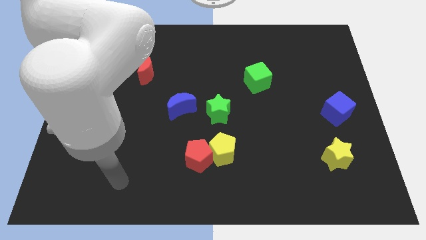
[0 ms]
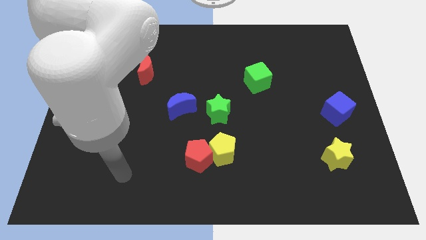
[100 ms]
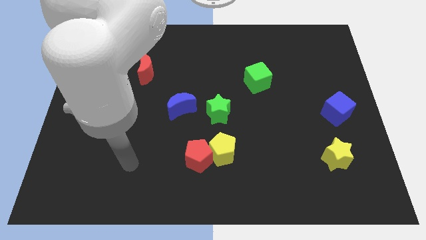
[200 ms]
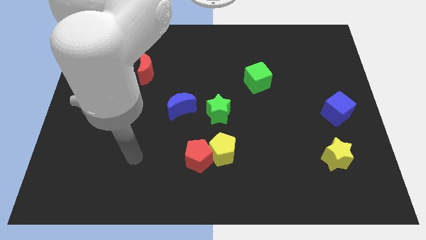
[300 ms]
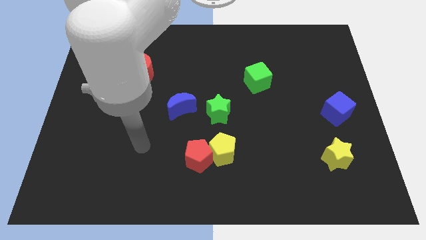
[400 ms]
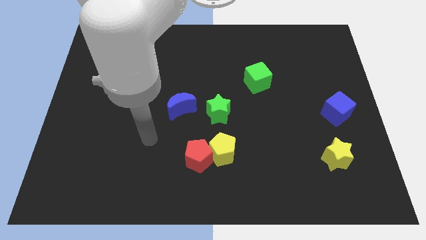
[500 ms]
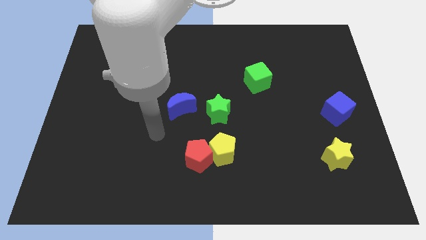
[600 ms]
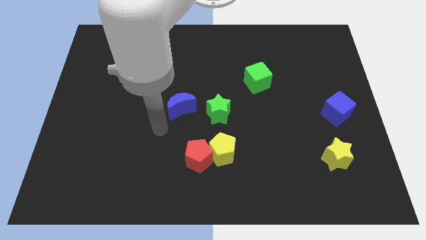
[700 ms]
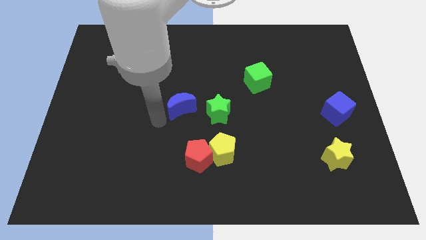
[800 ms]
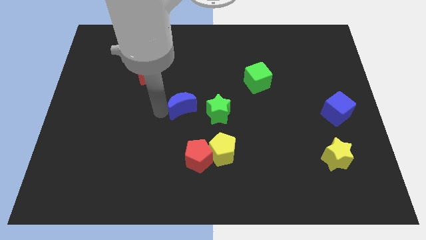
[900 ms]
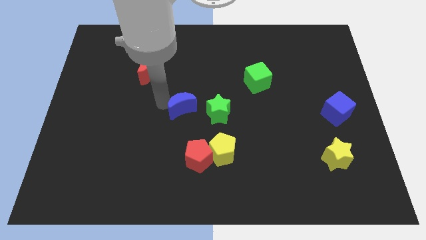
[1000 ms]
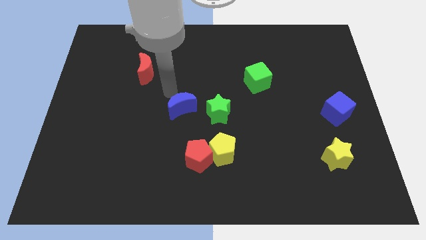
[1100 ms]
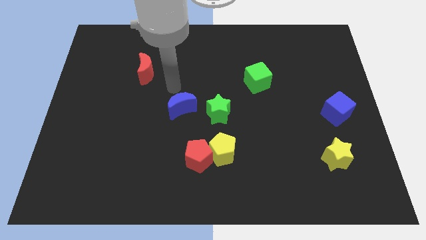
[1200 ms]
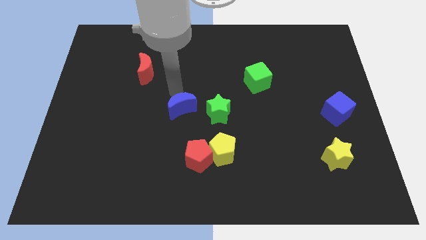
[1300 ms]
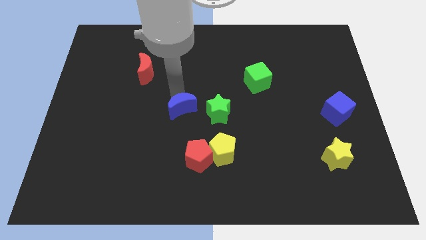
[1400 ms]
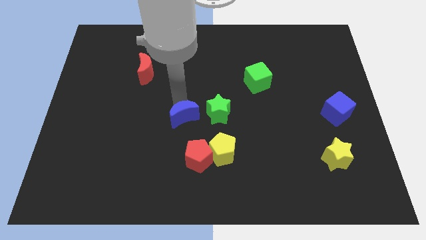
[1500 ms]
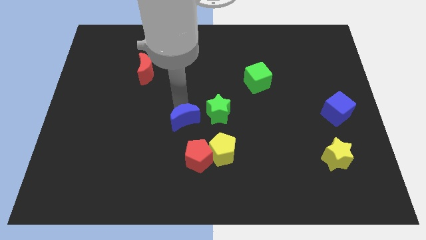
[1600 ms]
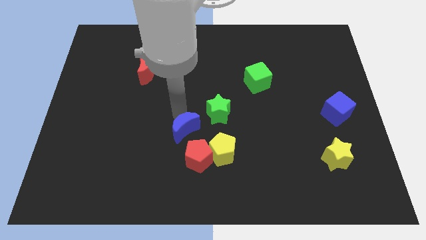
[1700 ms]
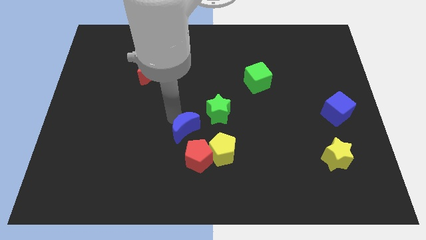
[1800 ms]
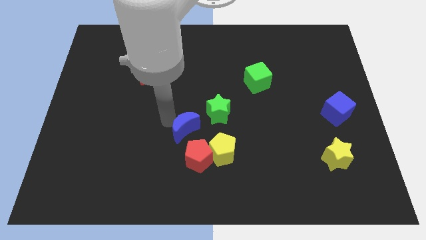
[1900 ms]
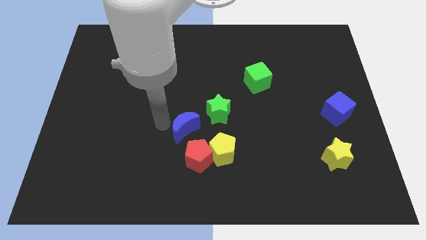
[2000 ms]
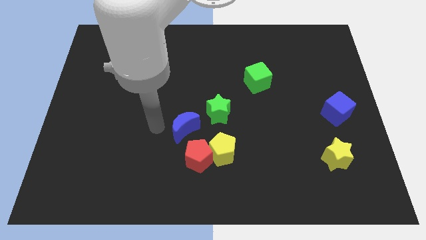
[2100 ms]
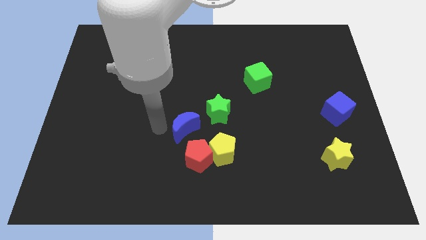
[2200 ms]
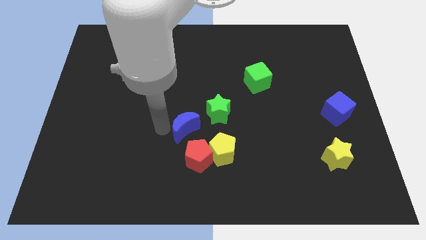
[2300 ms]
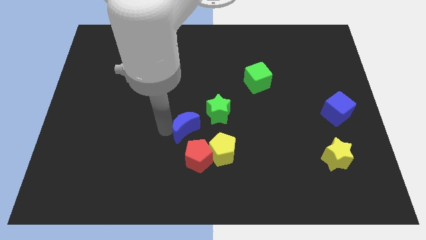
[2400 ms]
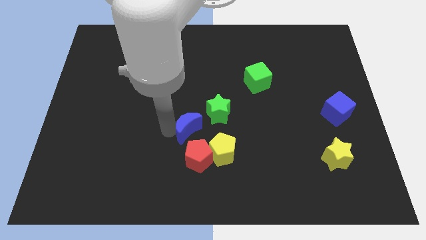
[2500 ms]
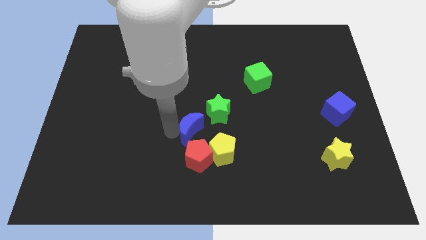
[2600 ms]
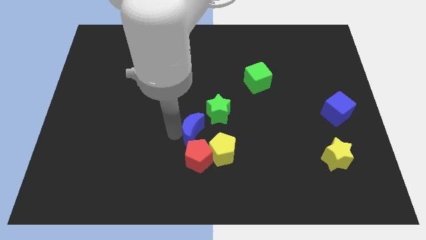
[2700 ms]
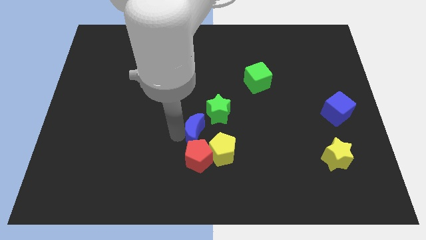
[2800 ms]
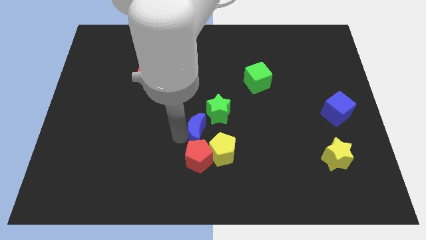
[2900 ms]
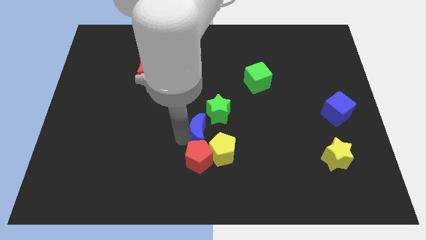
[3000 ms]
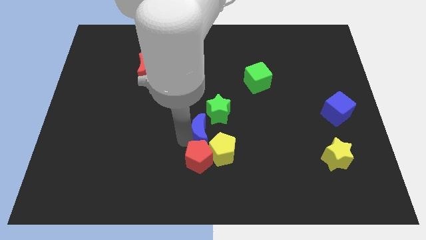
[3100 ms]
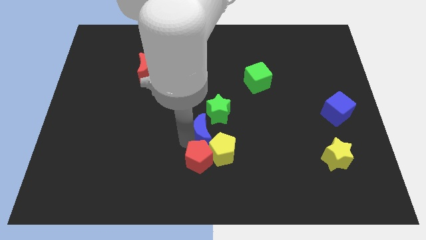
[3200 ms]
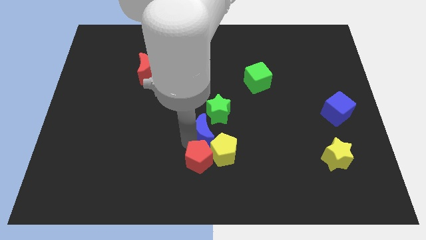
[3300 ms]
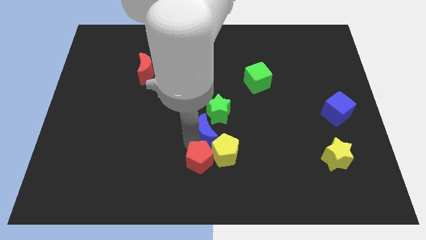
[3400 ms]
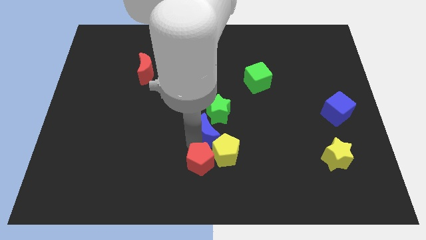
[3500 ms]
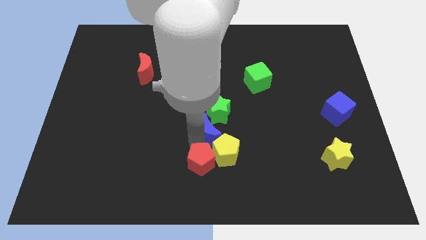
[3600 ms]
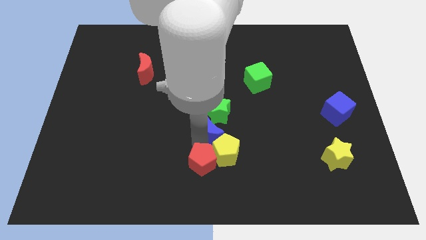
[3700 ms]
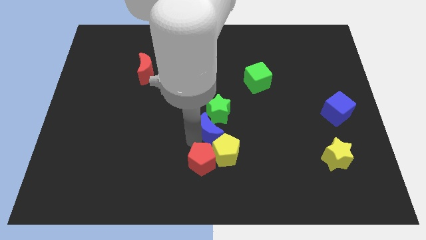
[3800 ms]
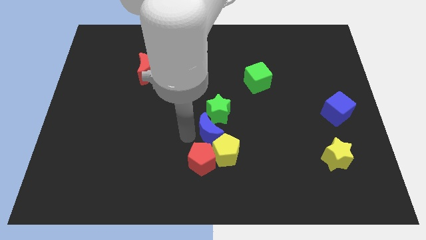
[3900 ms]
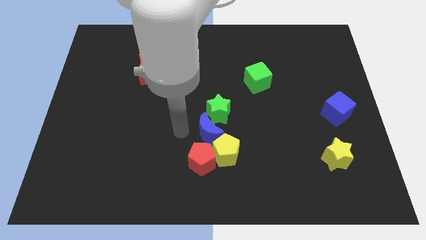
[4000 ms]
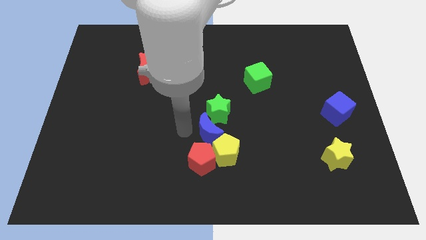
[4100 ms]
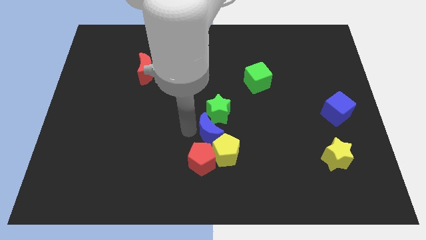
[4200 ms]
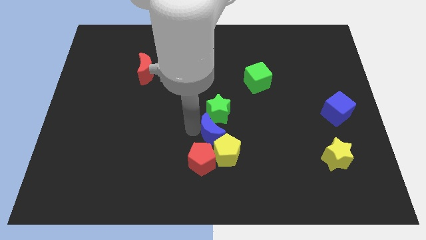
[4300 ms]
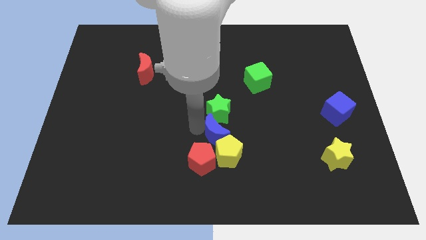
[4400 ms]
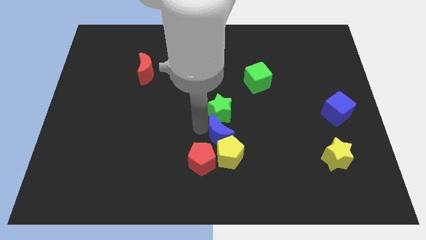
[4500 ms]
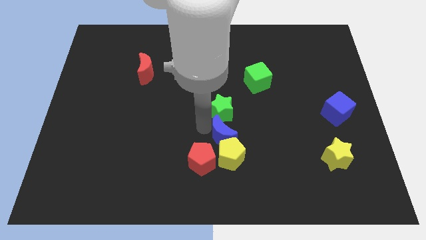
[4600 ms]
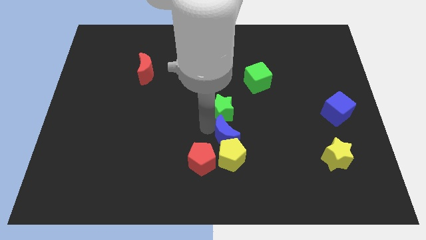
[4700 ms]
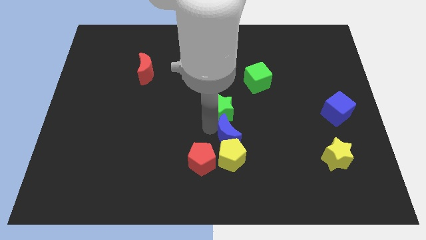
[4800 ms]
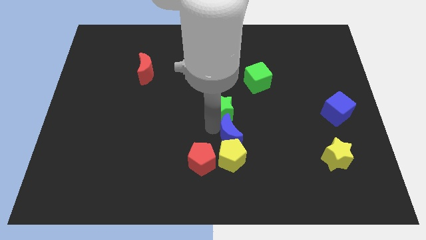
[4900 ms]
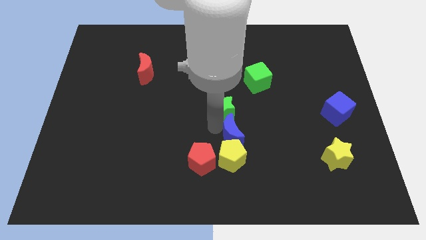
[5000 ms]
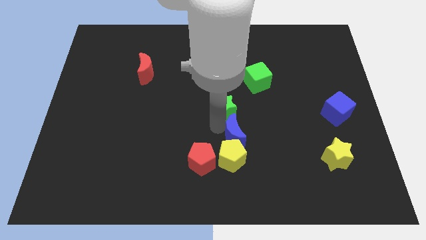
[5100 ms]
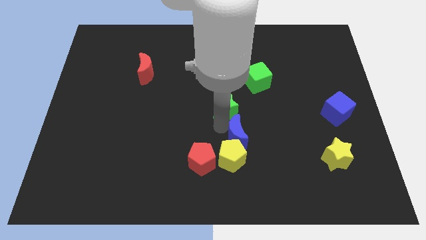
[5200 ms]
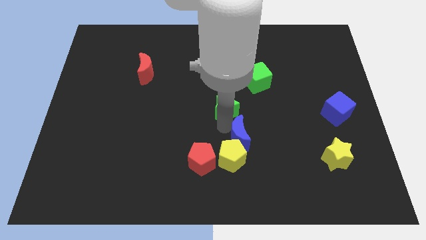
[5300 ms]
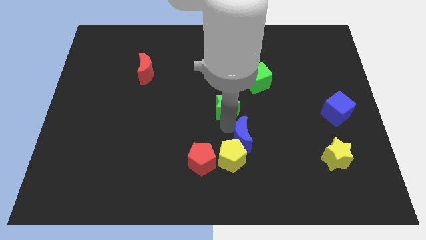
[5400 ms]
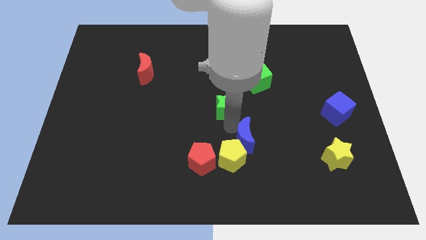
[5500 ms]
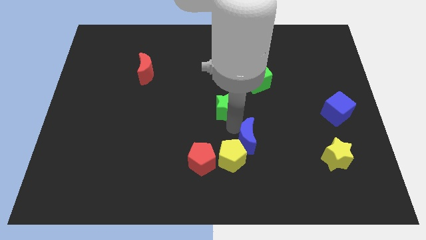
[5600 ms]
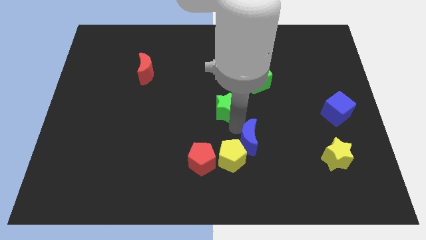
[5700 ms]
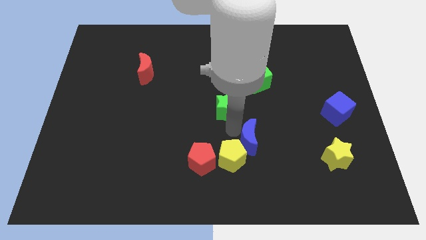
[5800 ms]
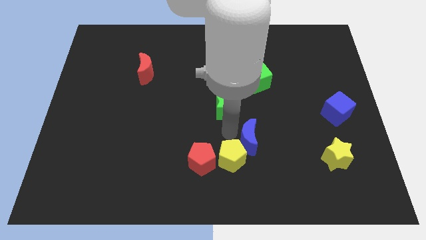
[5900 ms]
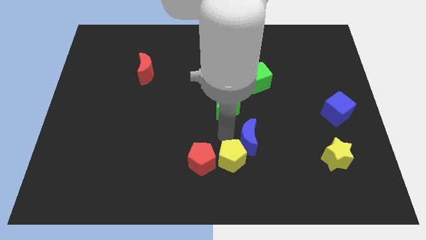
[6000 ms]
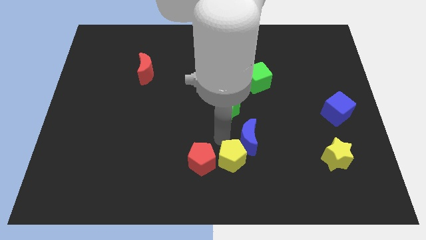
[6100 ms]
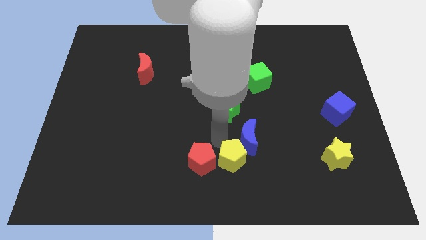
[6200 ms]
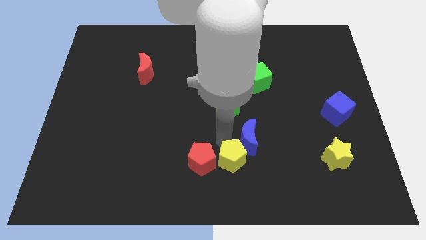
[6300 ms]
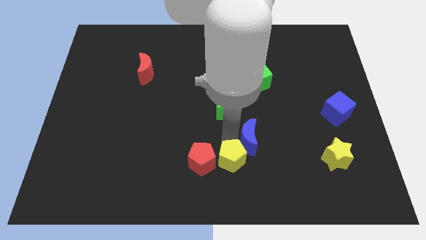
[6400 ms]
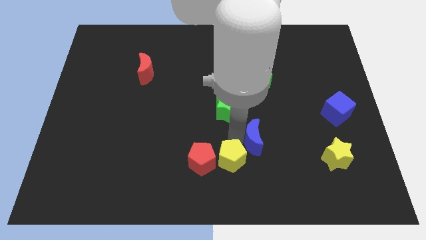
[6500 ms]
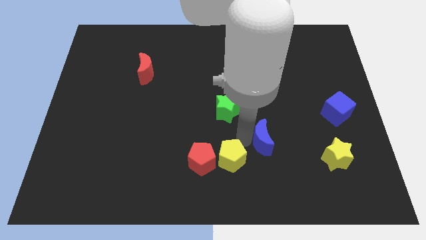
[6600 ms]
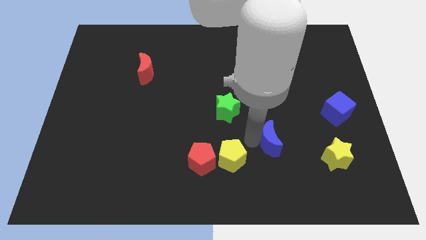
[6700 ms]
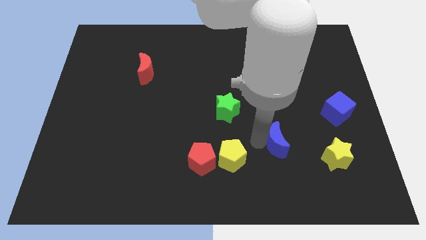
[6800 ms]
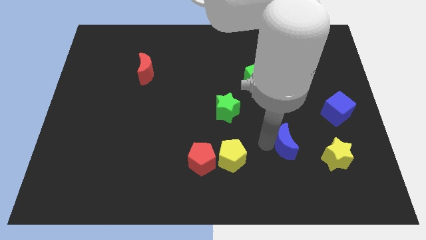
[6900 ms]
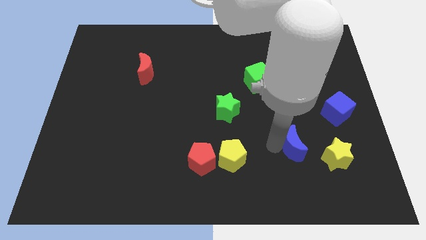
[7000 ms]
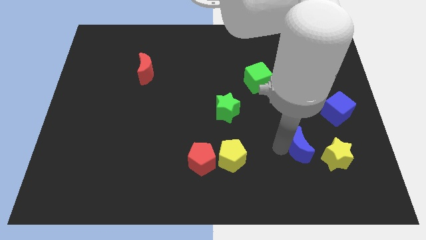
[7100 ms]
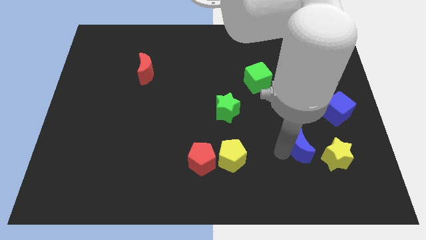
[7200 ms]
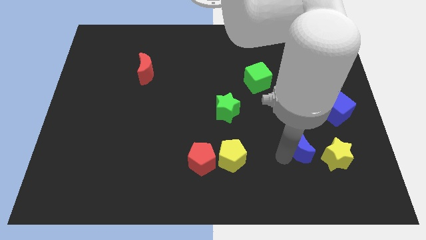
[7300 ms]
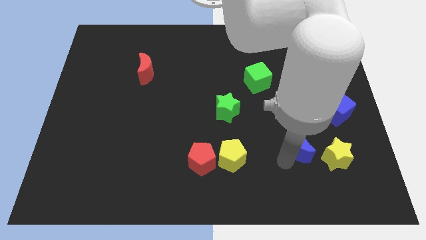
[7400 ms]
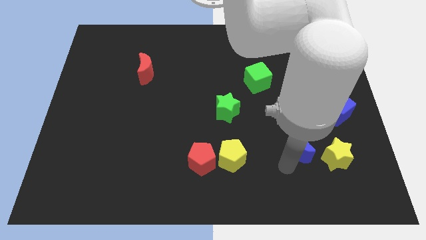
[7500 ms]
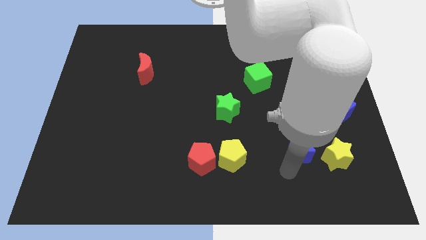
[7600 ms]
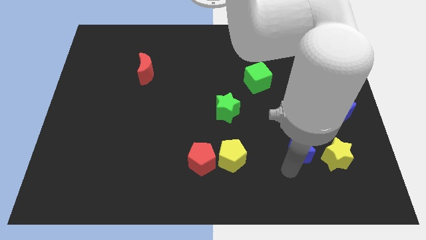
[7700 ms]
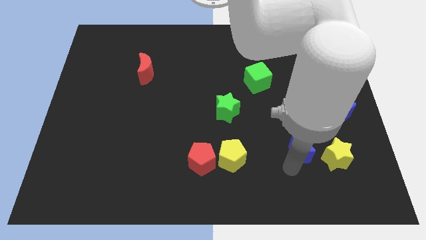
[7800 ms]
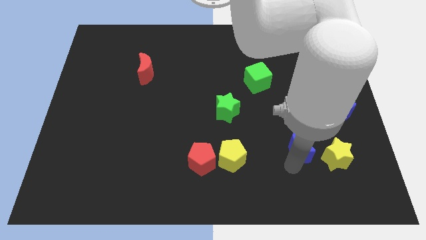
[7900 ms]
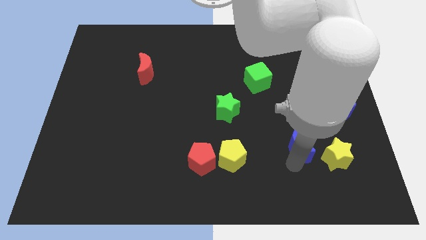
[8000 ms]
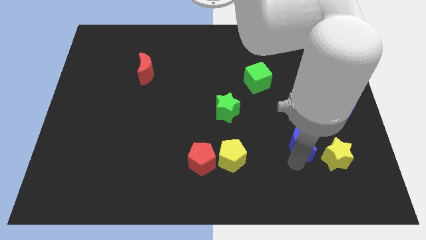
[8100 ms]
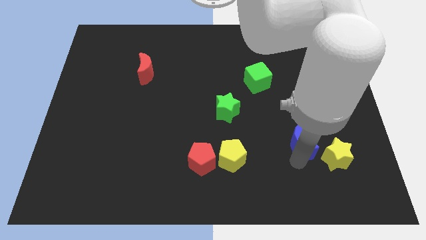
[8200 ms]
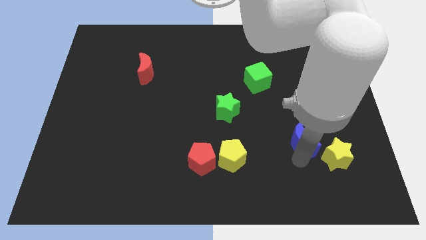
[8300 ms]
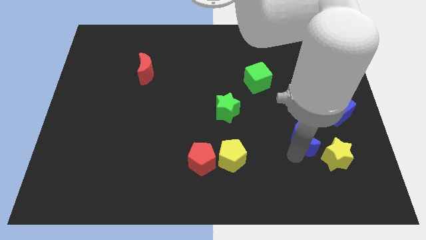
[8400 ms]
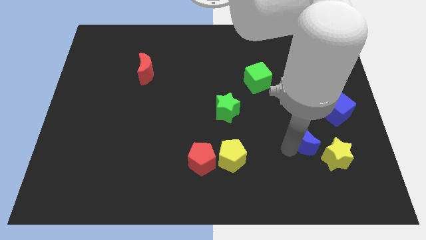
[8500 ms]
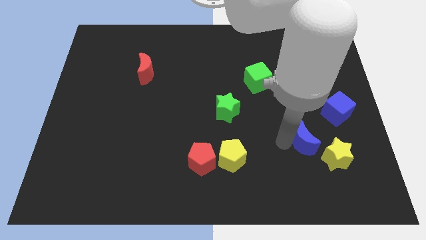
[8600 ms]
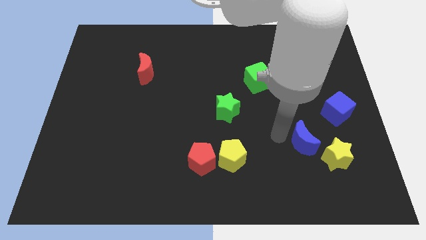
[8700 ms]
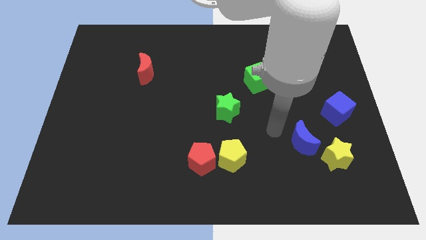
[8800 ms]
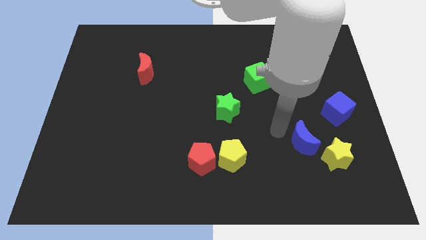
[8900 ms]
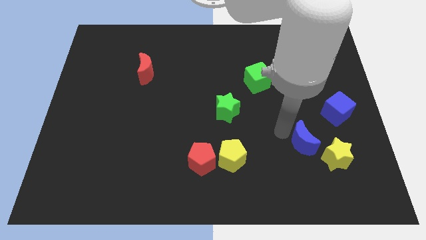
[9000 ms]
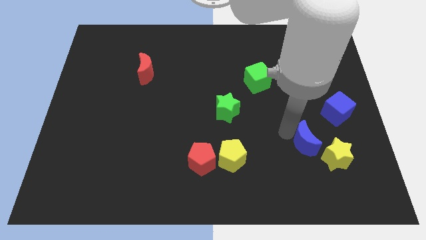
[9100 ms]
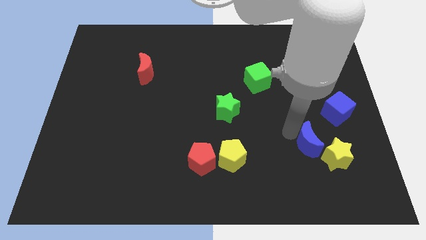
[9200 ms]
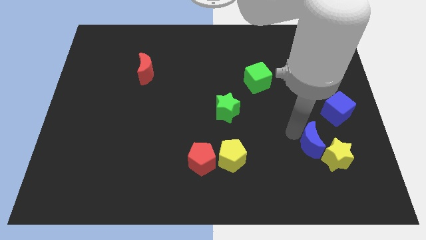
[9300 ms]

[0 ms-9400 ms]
put the blue moon next to the yellow star
